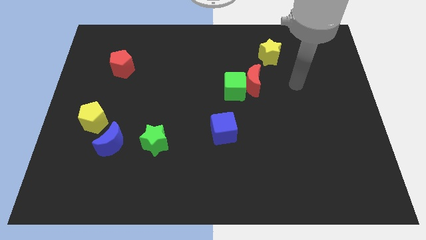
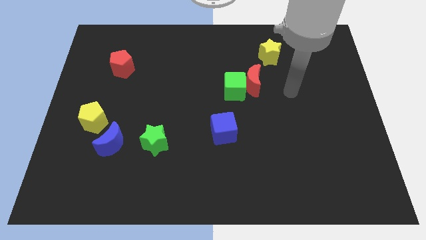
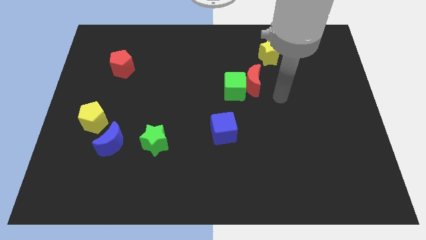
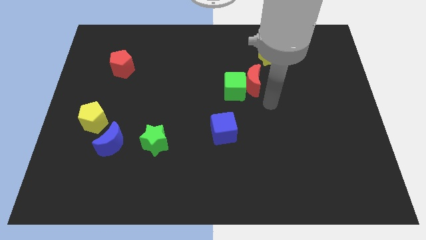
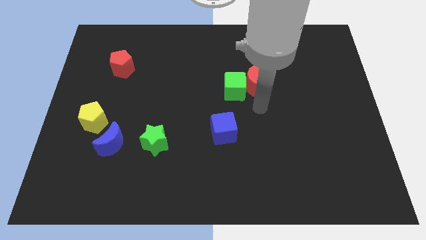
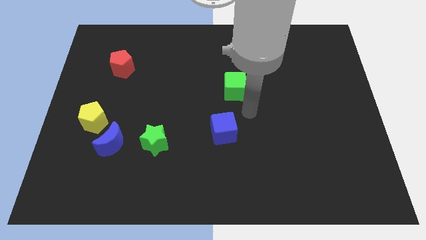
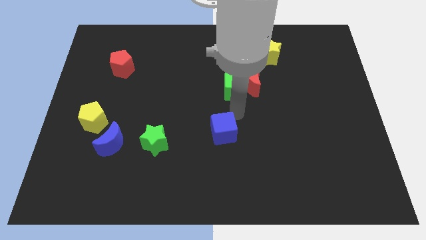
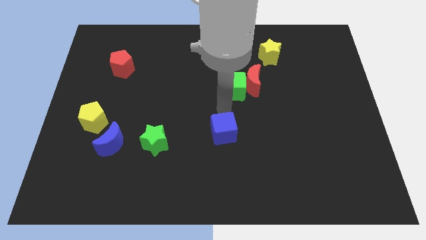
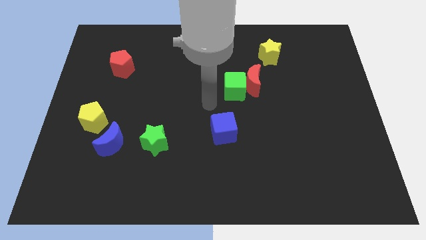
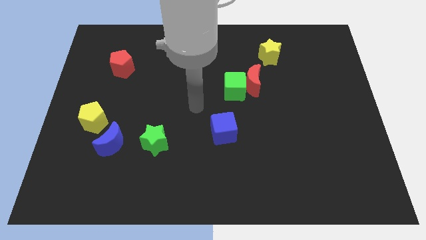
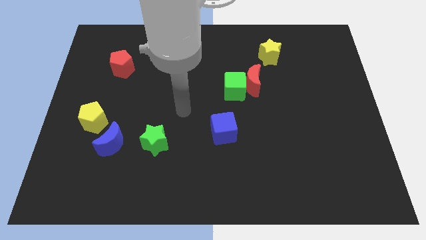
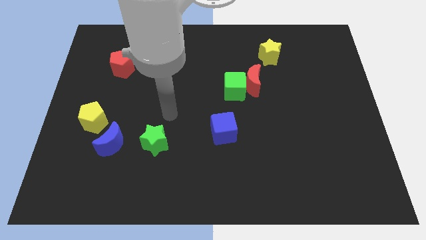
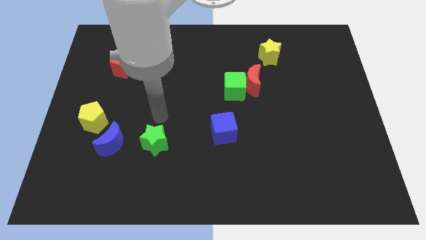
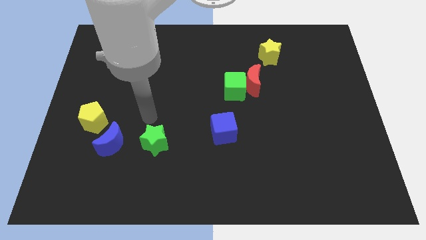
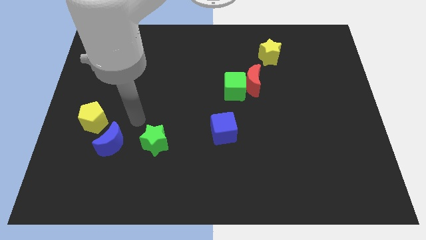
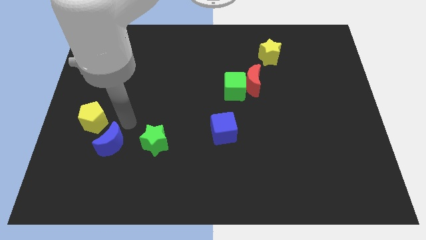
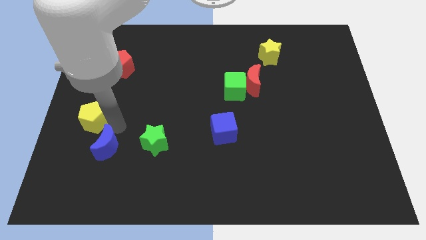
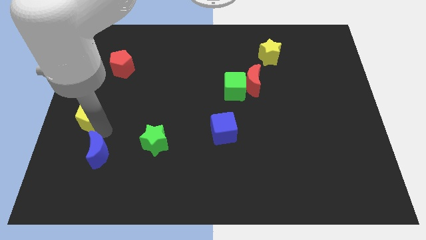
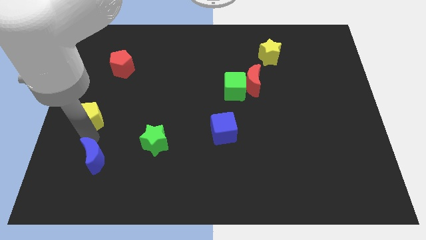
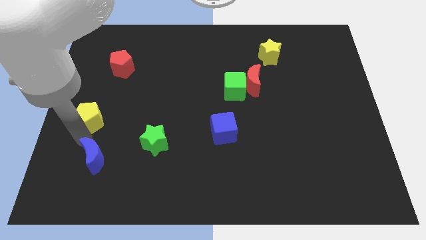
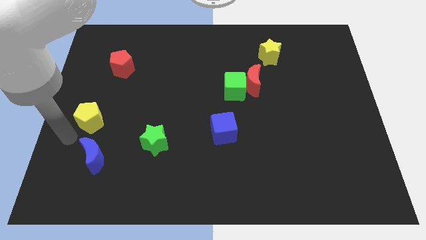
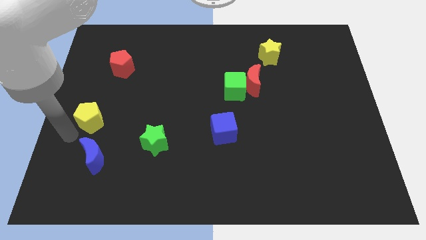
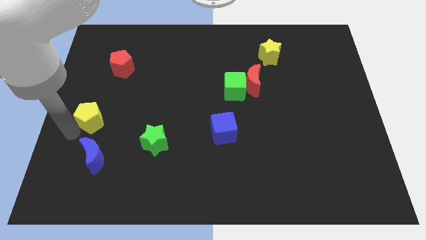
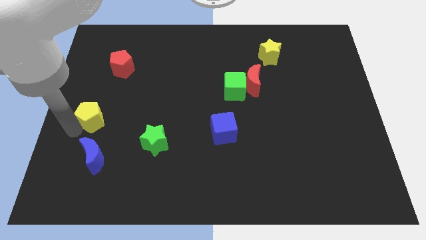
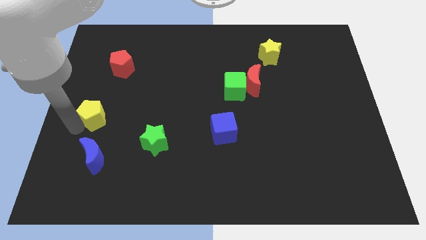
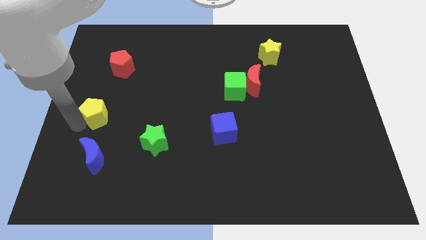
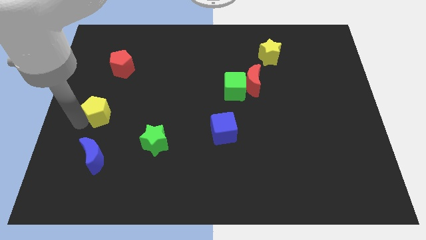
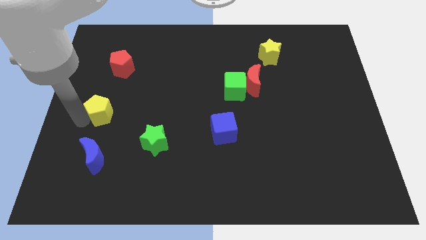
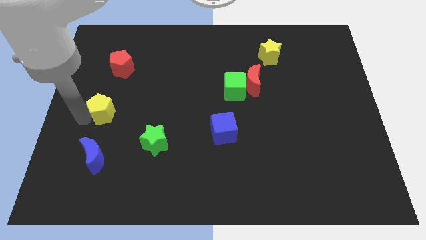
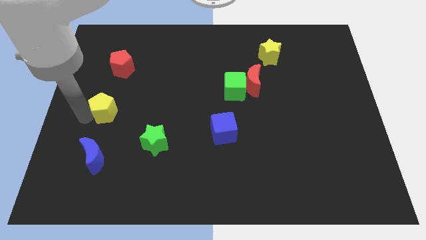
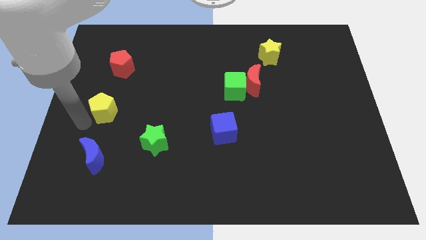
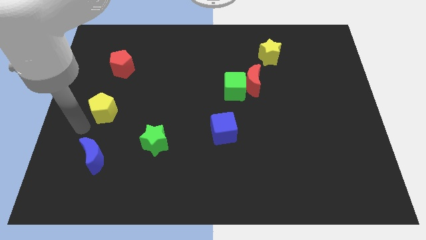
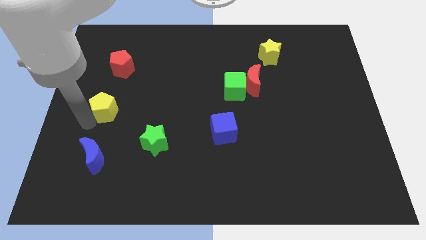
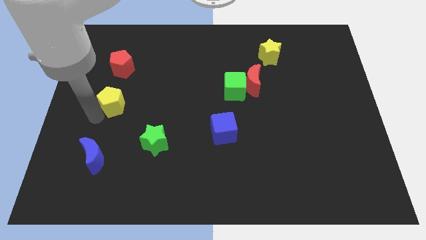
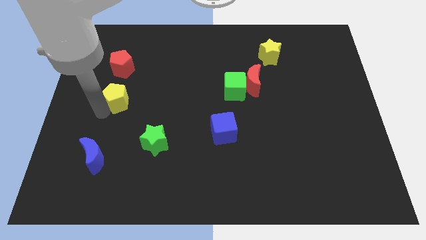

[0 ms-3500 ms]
slide the yellow pentagon a little bit up and to the right

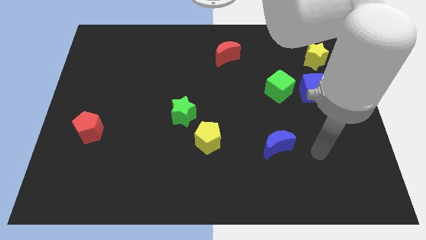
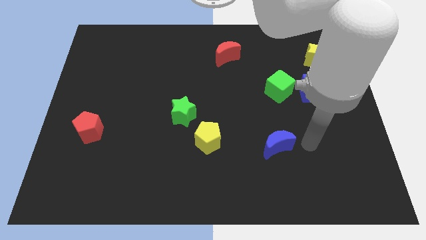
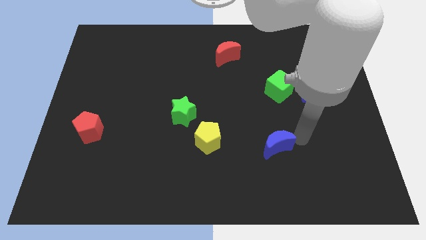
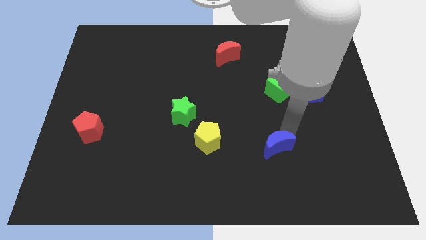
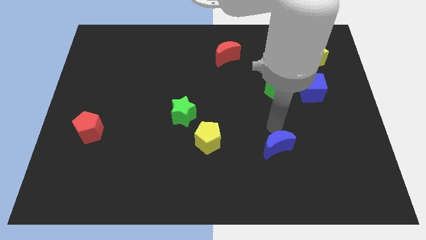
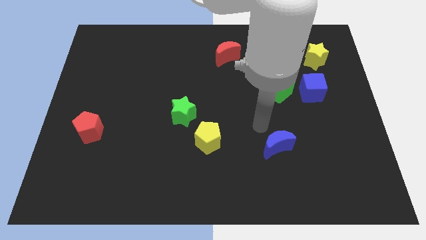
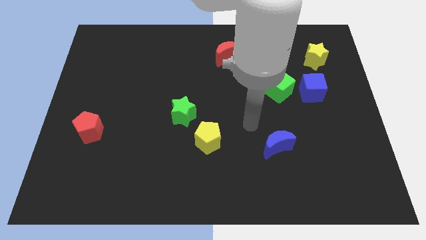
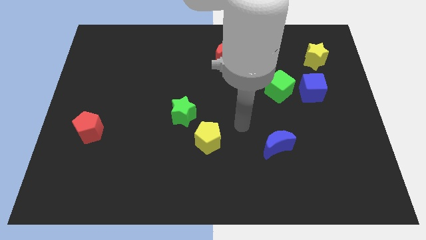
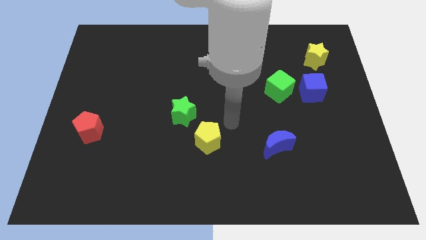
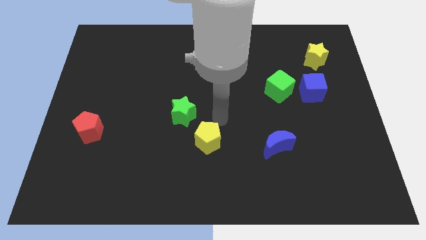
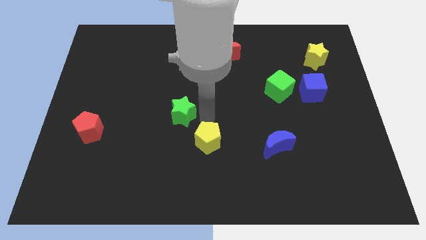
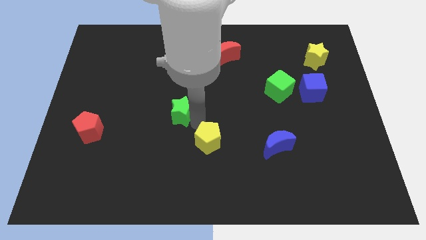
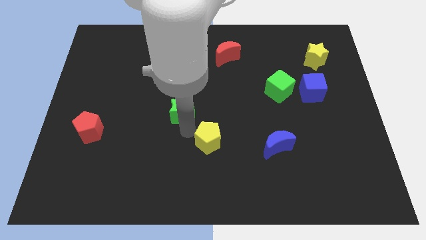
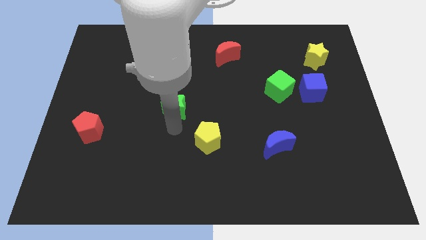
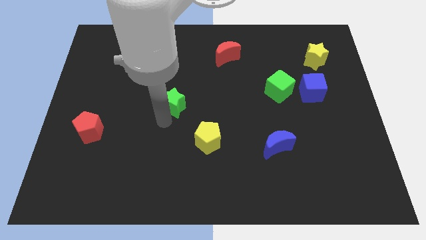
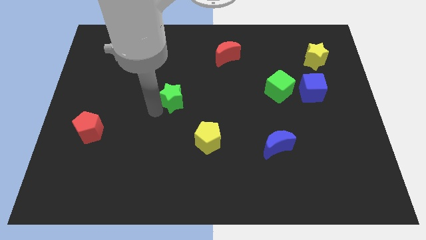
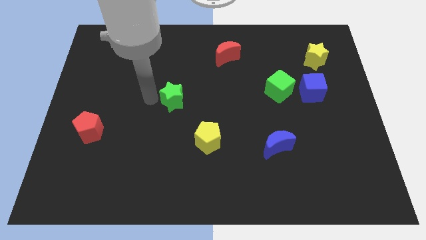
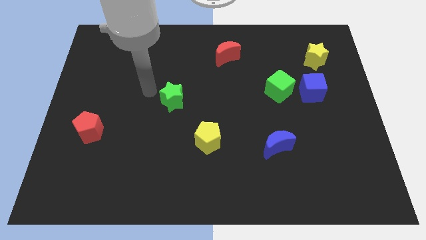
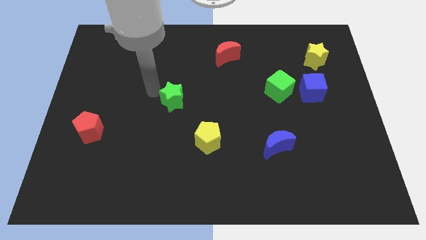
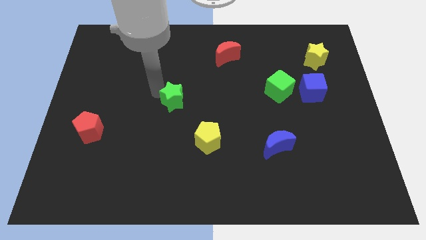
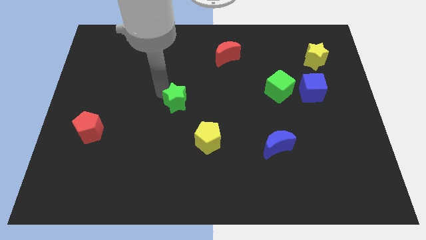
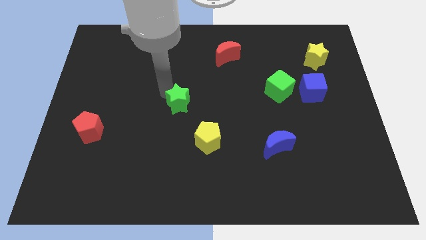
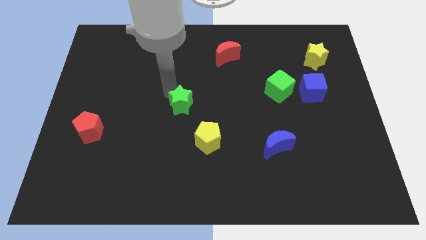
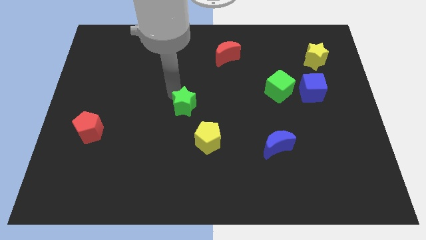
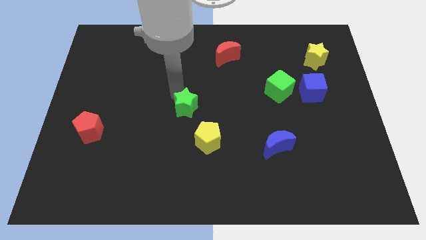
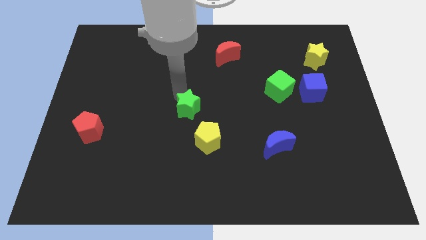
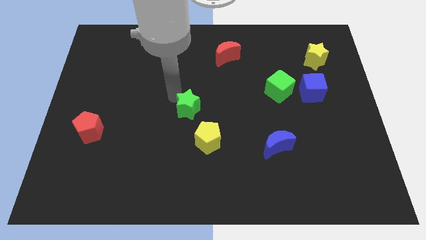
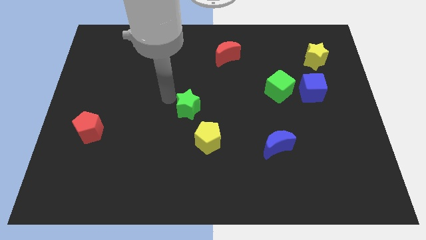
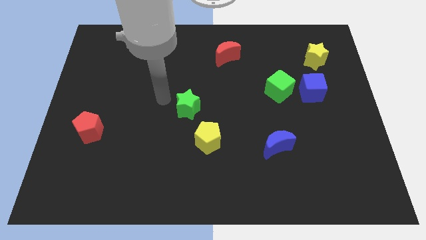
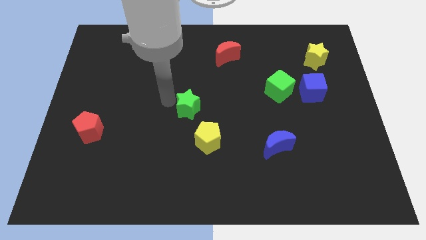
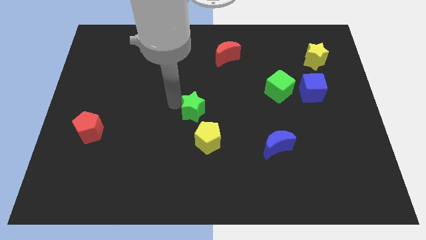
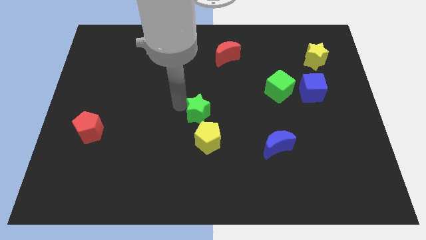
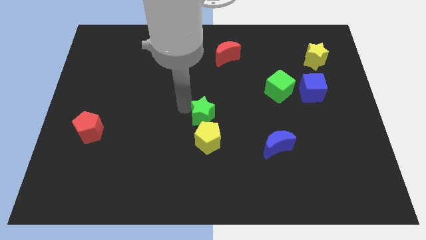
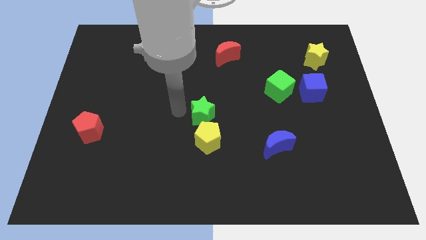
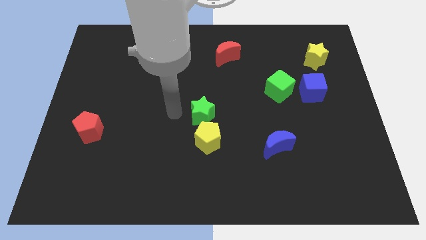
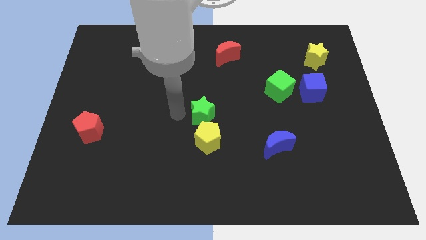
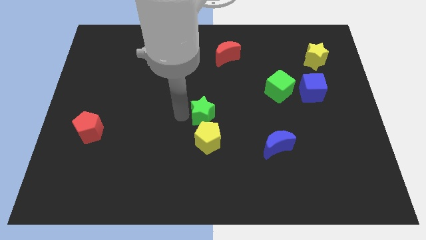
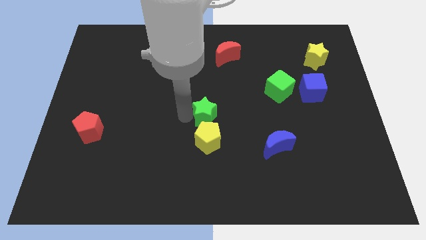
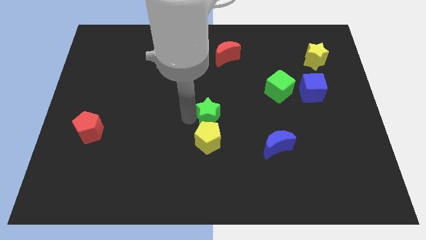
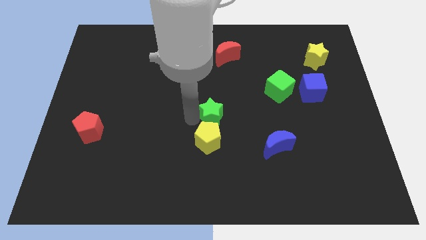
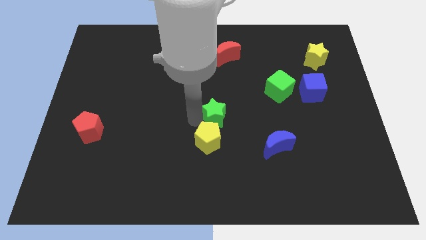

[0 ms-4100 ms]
slightly push the green star to the right

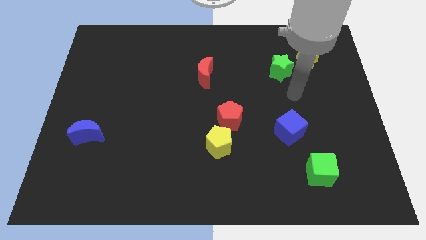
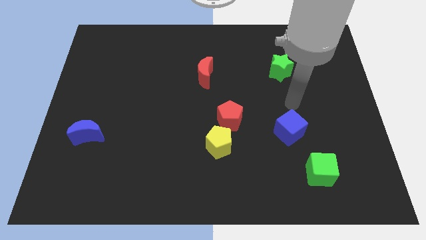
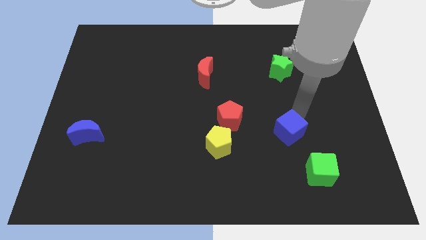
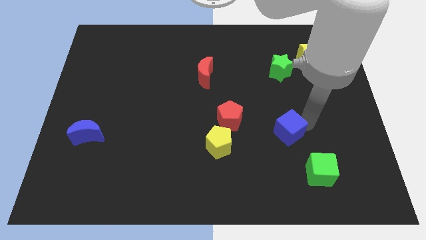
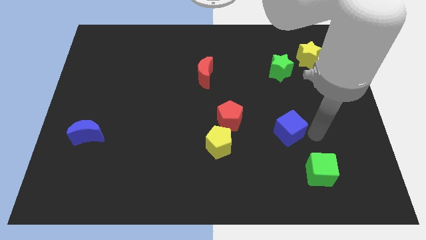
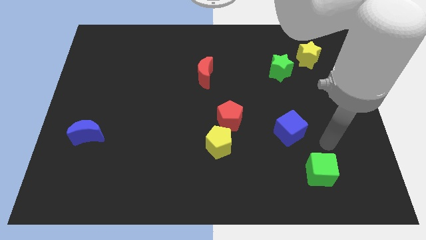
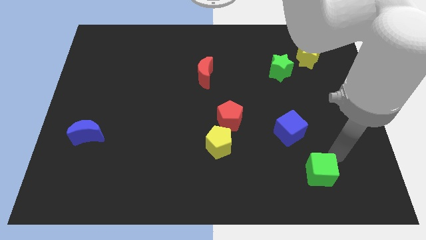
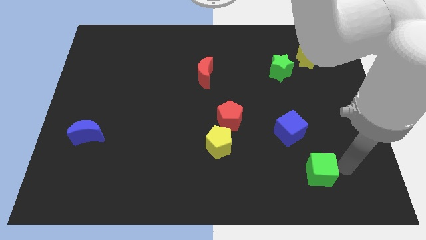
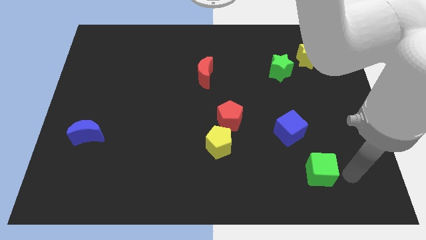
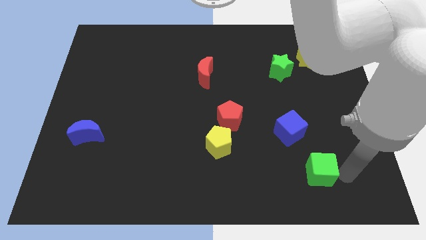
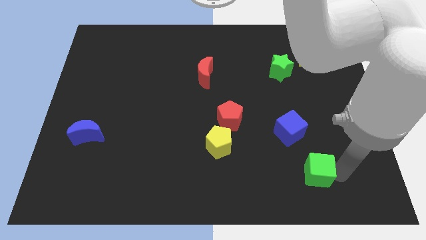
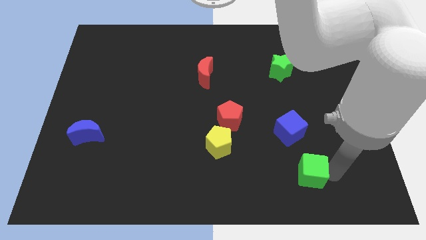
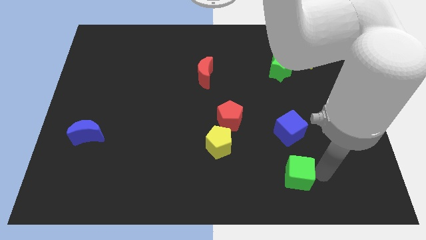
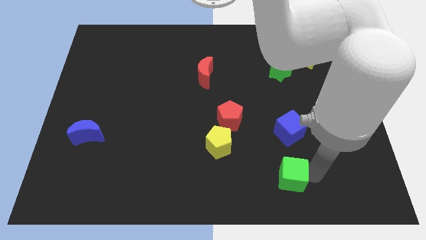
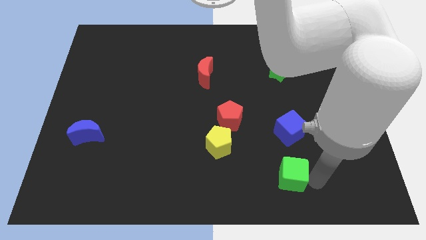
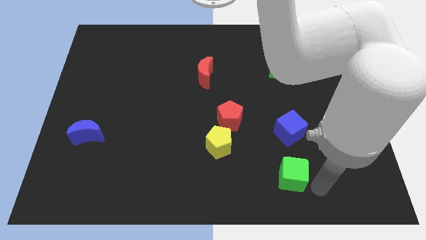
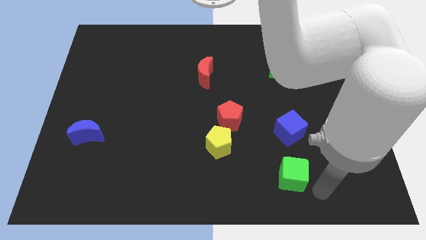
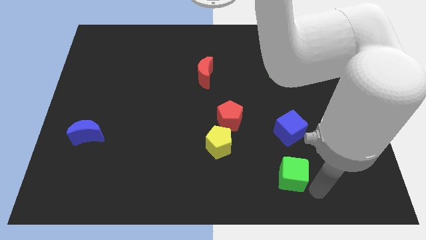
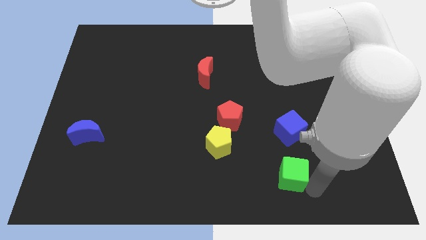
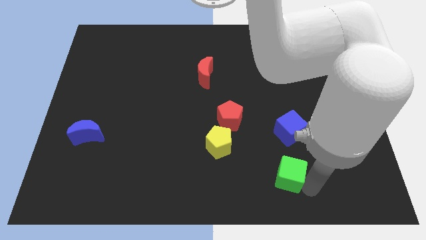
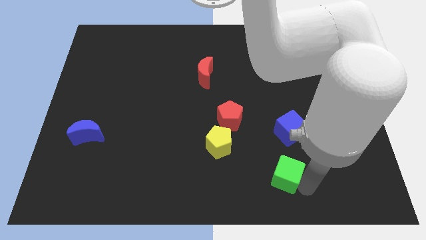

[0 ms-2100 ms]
slide the green cube somewhat to the left
